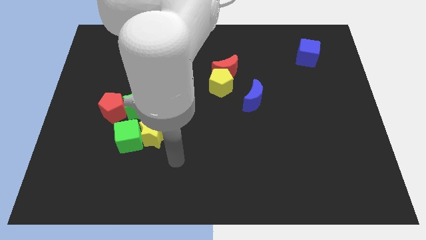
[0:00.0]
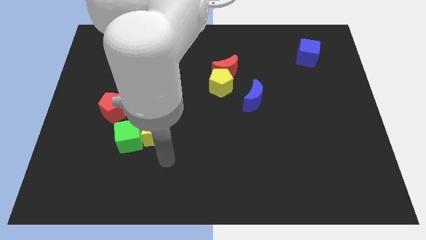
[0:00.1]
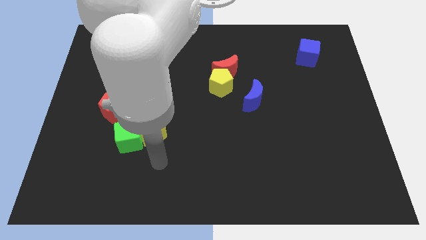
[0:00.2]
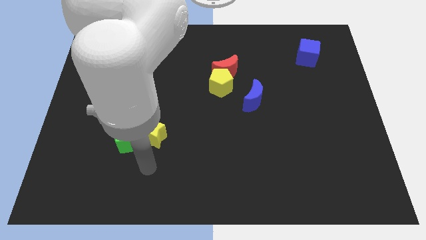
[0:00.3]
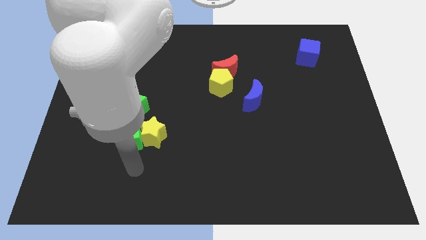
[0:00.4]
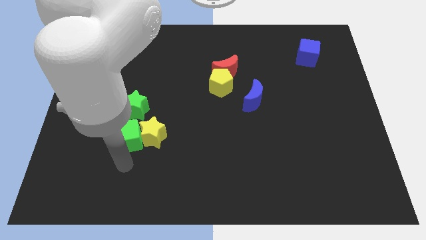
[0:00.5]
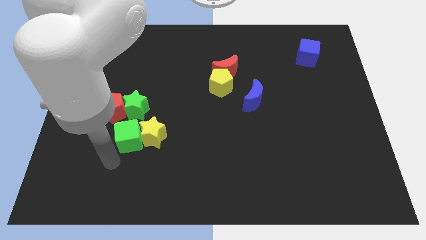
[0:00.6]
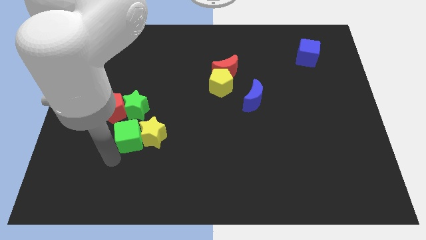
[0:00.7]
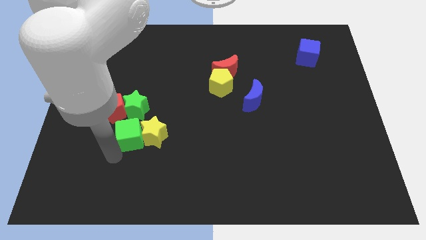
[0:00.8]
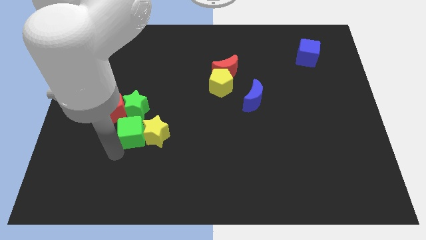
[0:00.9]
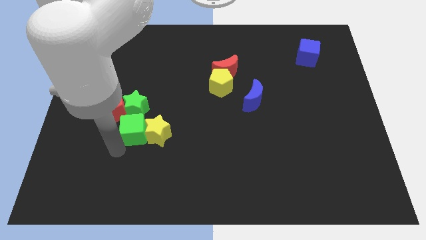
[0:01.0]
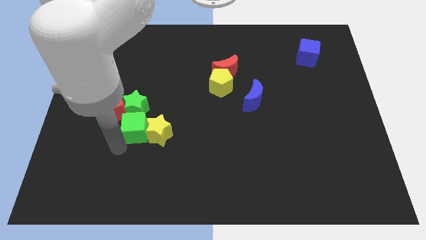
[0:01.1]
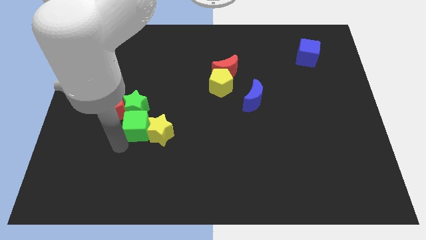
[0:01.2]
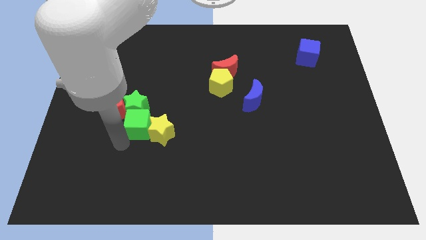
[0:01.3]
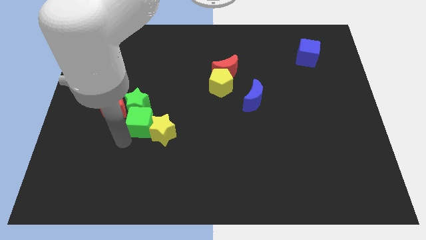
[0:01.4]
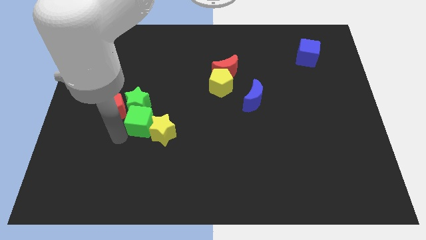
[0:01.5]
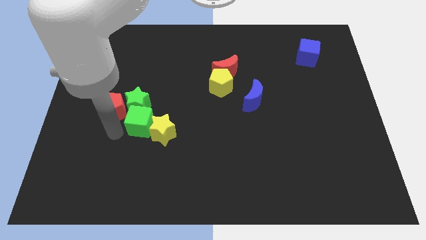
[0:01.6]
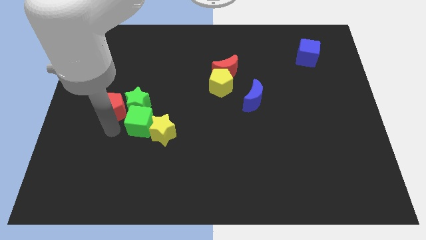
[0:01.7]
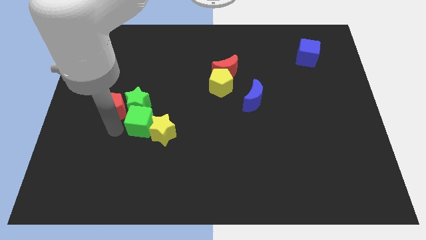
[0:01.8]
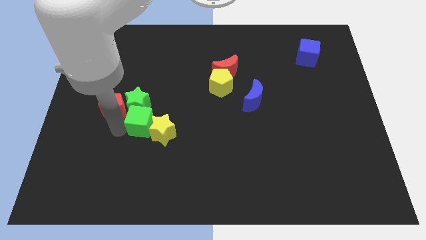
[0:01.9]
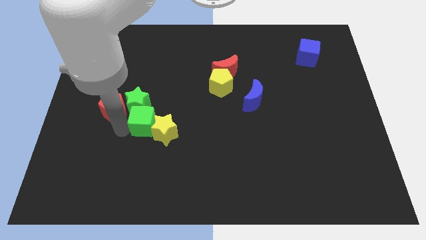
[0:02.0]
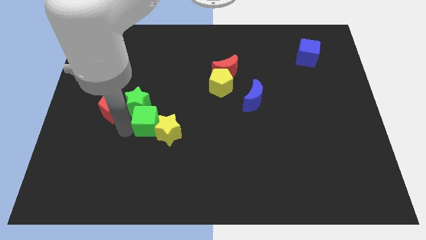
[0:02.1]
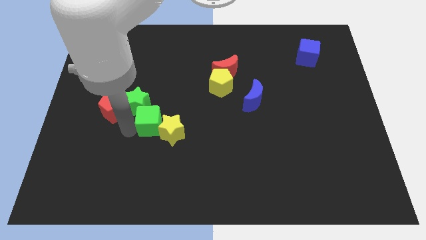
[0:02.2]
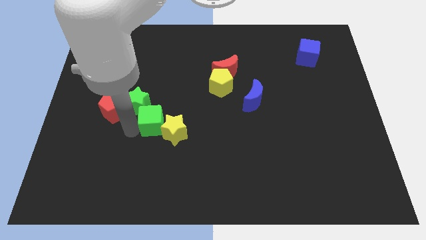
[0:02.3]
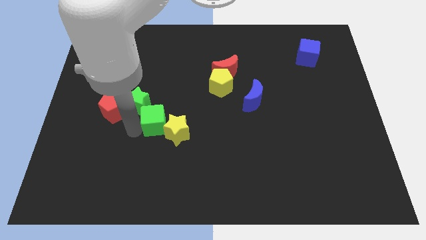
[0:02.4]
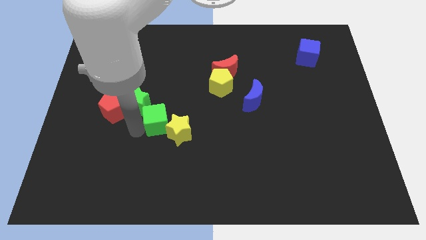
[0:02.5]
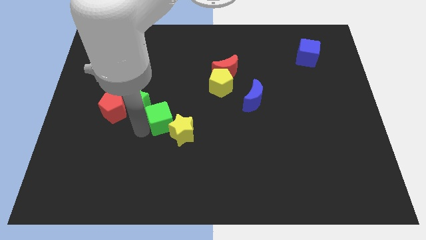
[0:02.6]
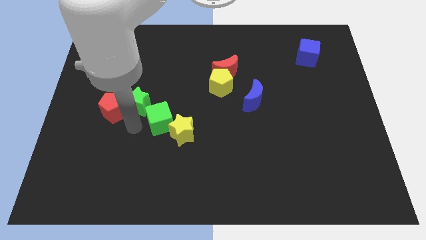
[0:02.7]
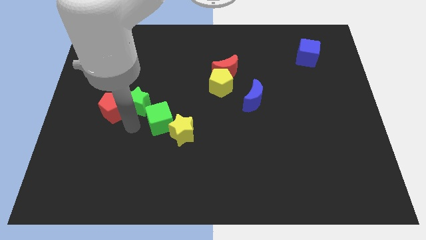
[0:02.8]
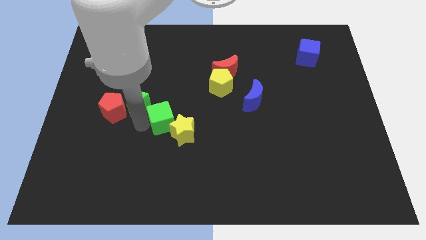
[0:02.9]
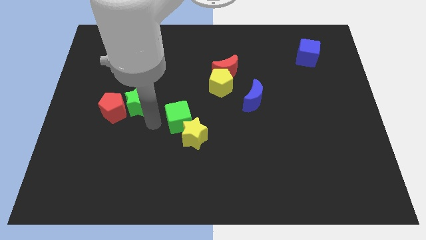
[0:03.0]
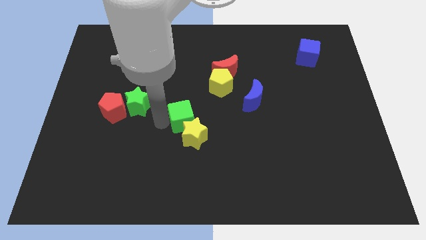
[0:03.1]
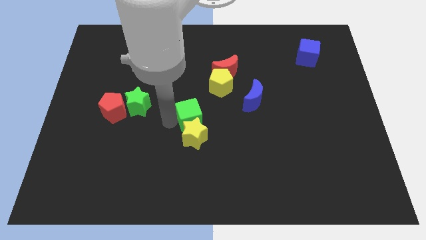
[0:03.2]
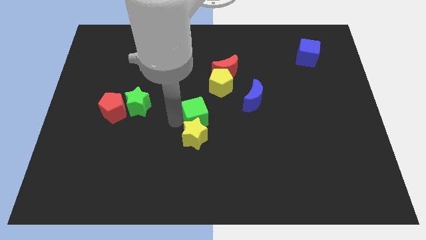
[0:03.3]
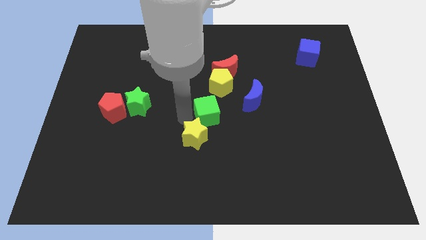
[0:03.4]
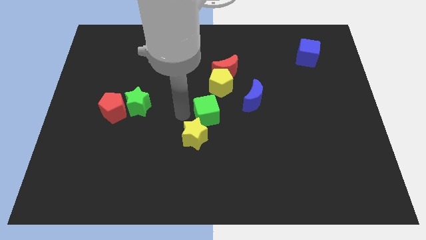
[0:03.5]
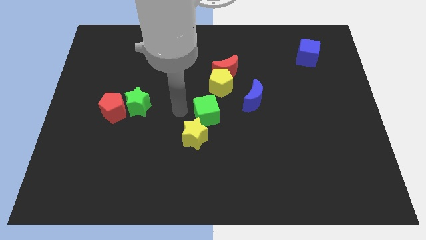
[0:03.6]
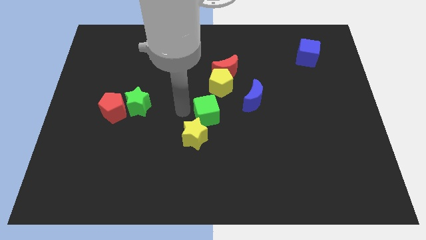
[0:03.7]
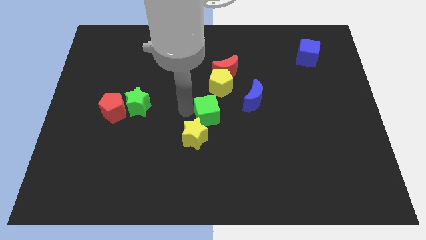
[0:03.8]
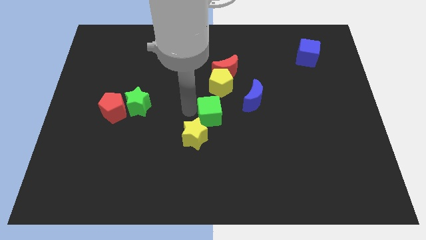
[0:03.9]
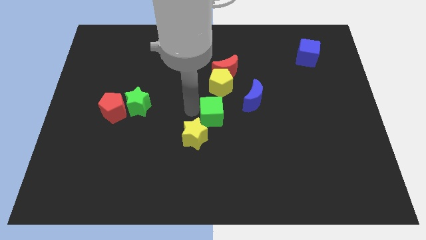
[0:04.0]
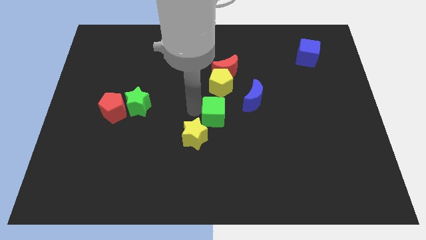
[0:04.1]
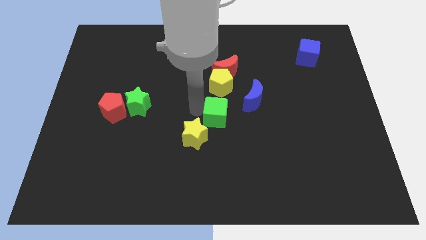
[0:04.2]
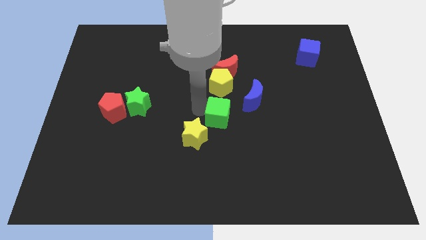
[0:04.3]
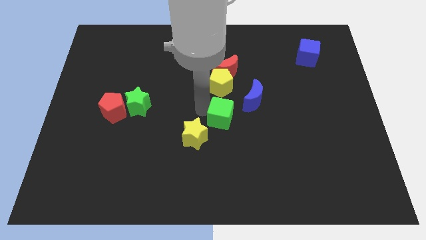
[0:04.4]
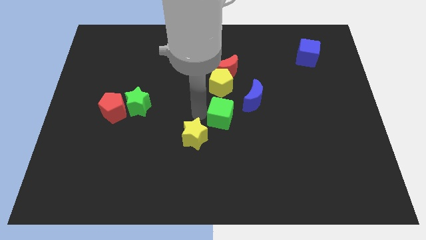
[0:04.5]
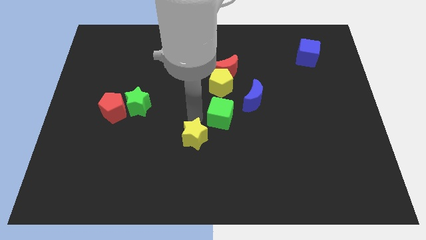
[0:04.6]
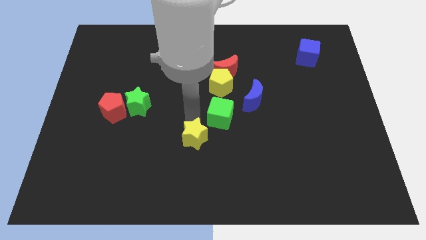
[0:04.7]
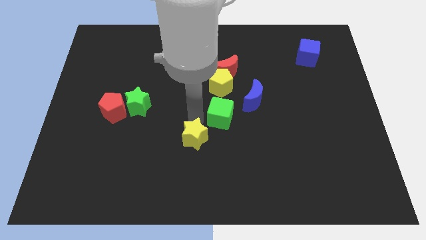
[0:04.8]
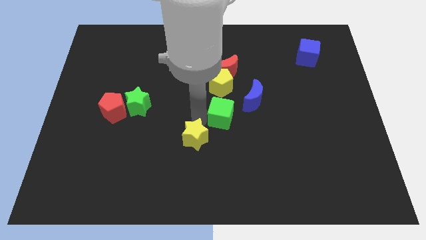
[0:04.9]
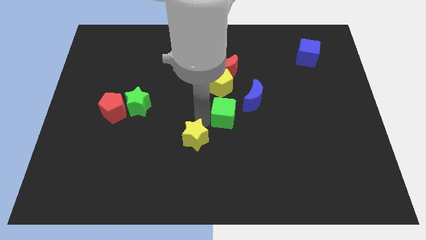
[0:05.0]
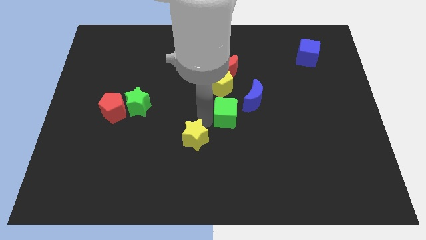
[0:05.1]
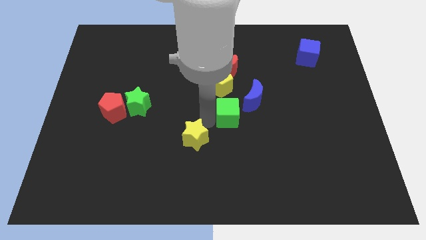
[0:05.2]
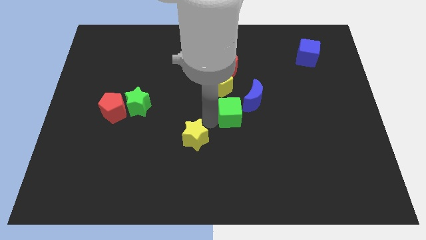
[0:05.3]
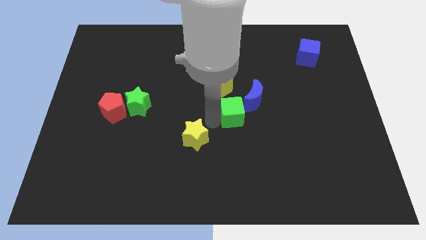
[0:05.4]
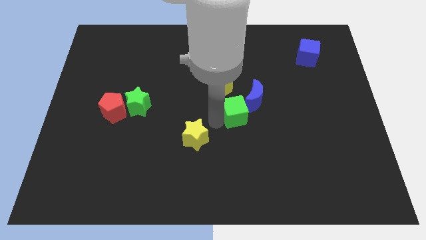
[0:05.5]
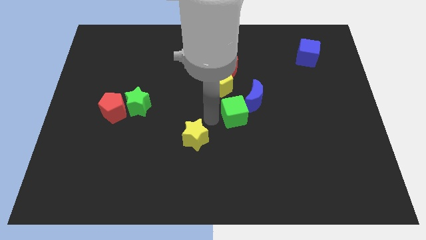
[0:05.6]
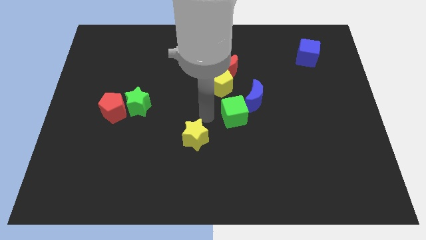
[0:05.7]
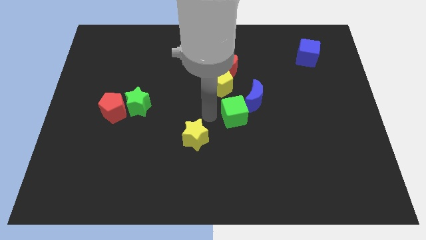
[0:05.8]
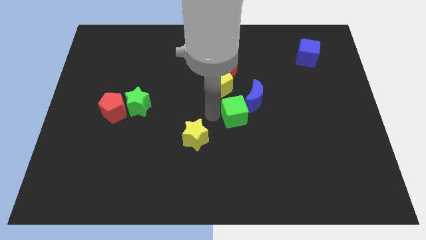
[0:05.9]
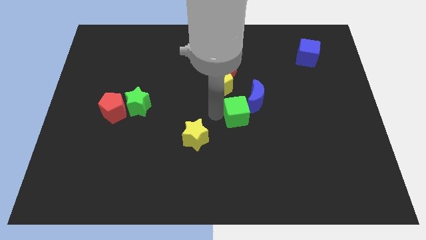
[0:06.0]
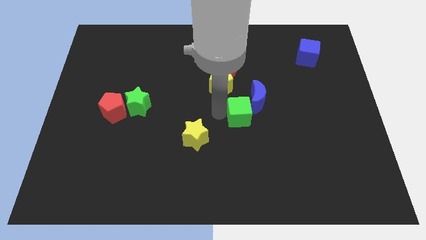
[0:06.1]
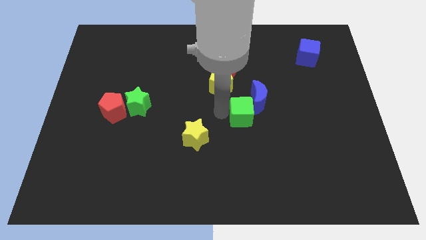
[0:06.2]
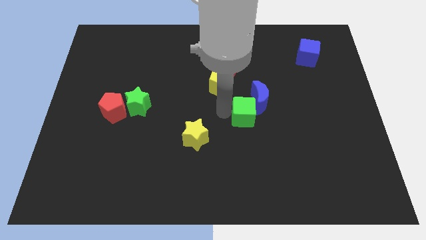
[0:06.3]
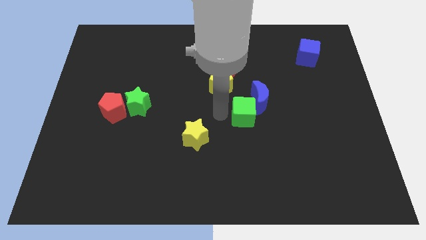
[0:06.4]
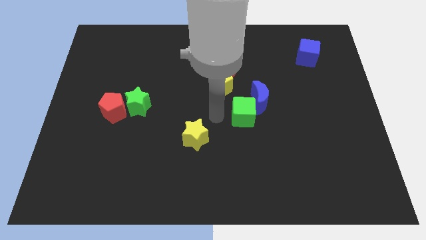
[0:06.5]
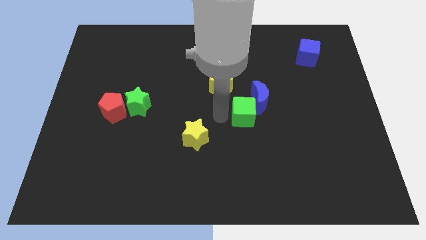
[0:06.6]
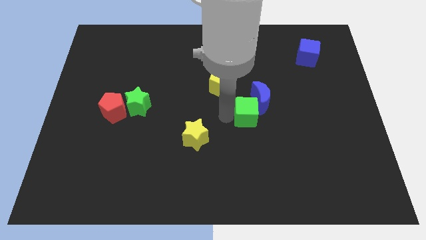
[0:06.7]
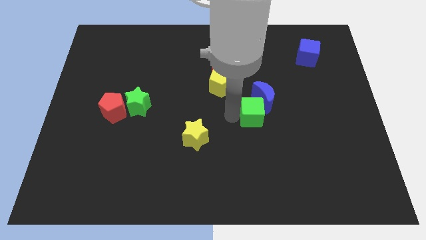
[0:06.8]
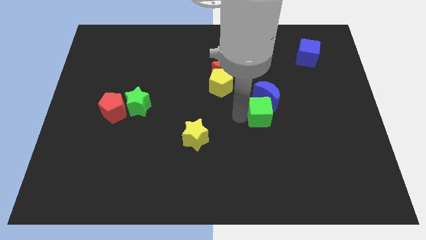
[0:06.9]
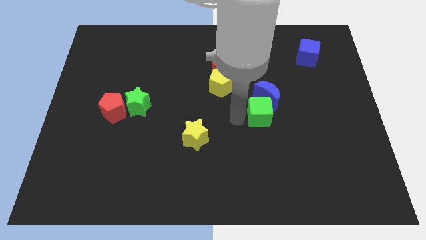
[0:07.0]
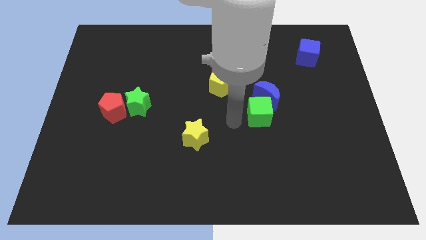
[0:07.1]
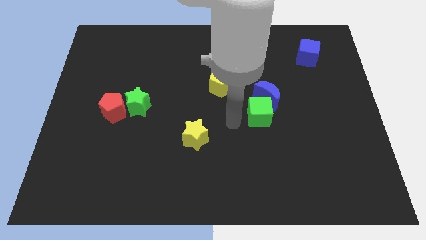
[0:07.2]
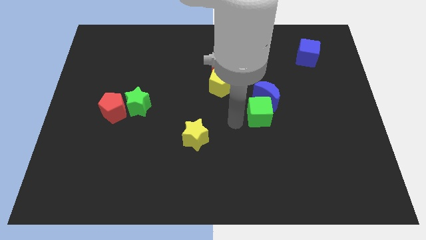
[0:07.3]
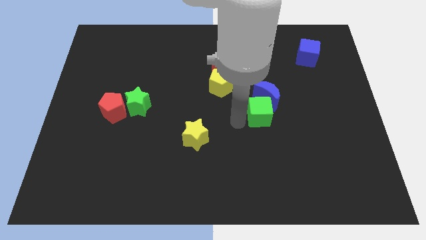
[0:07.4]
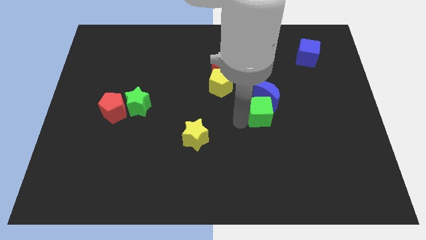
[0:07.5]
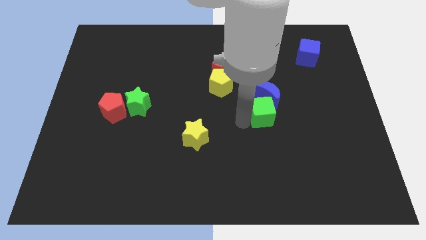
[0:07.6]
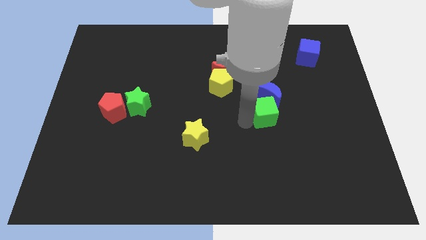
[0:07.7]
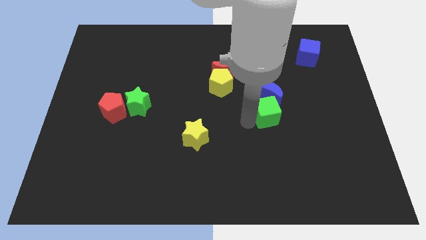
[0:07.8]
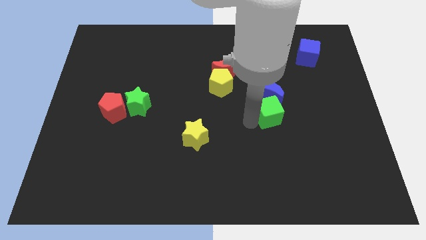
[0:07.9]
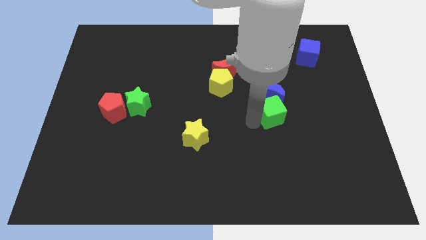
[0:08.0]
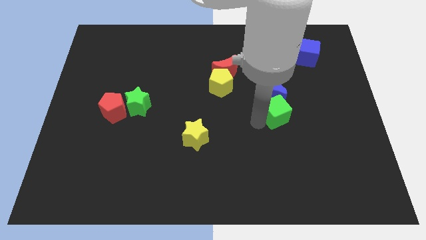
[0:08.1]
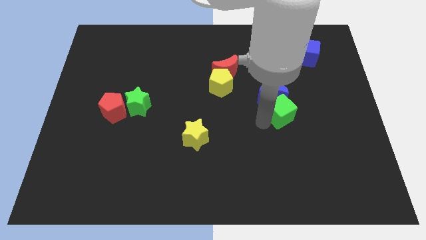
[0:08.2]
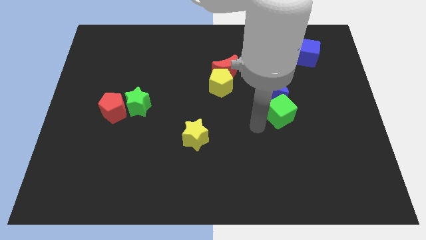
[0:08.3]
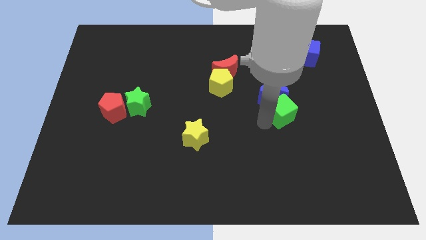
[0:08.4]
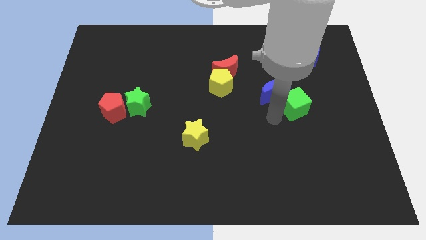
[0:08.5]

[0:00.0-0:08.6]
put the green cube right of the blue moon
